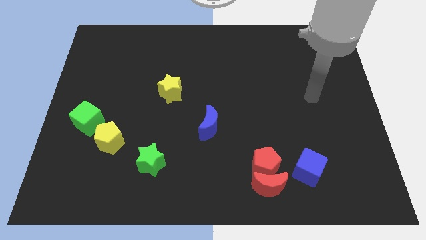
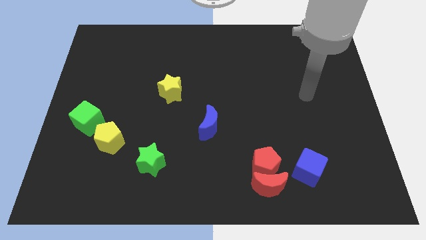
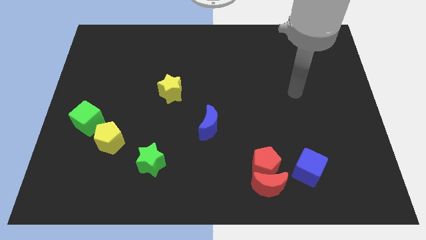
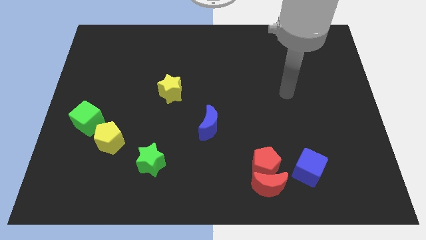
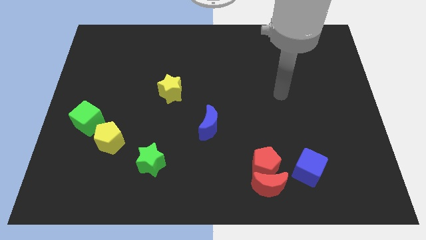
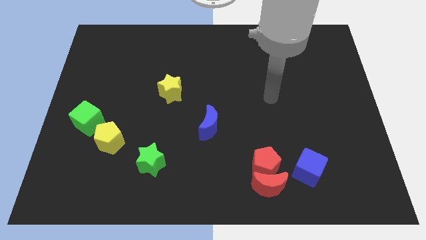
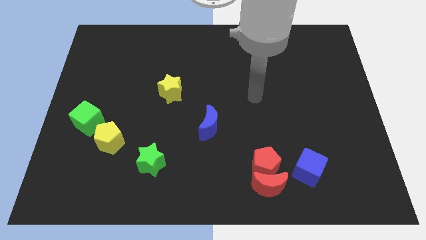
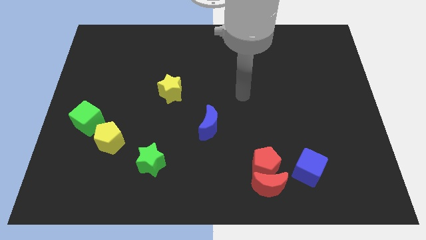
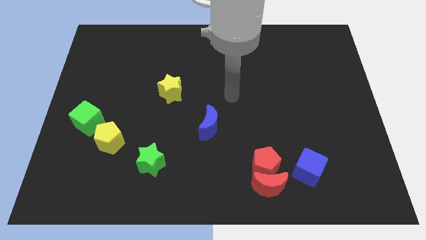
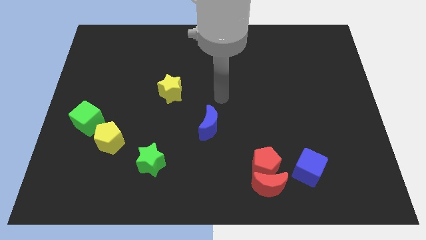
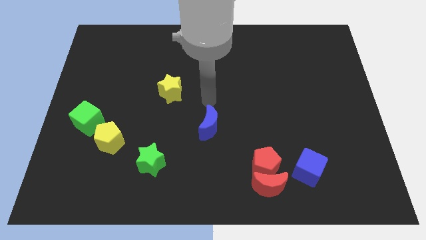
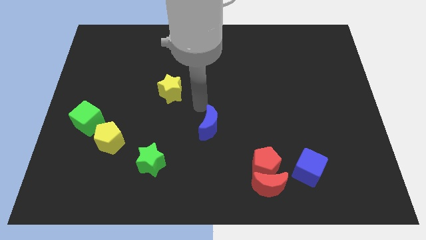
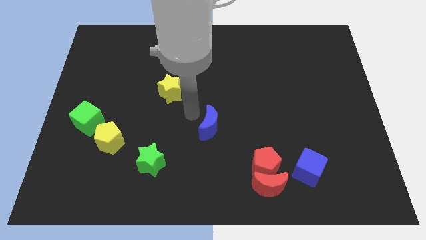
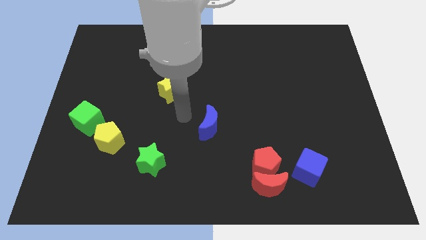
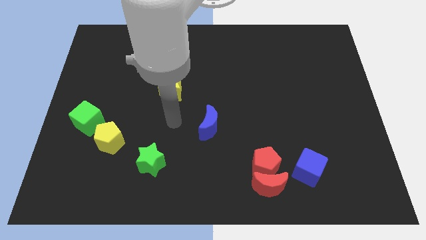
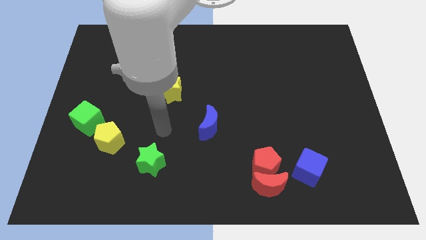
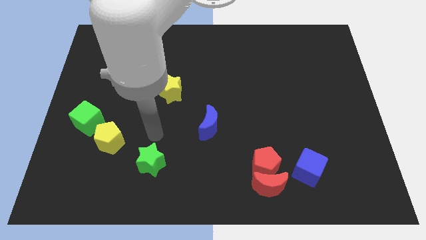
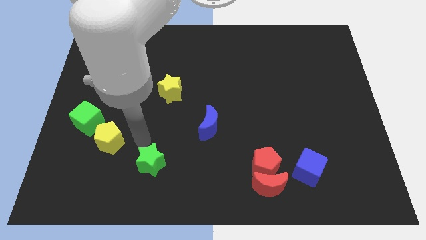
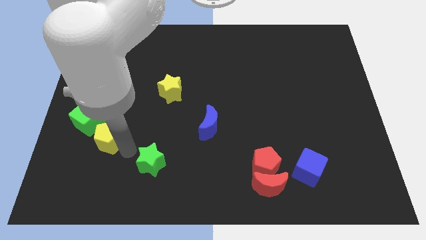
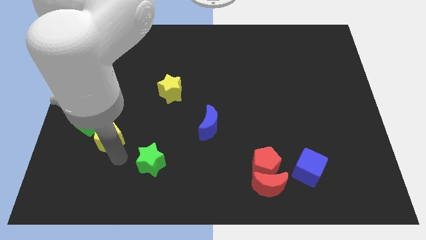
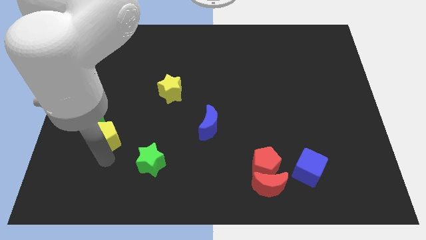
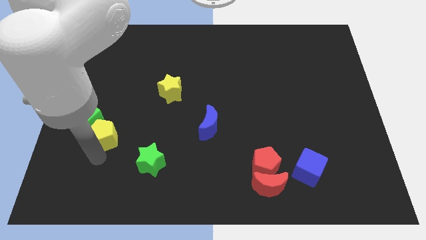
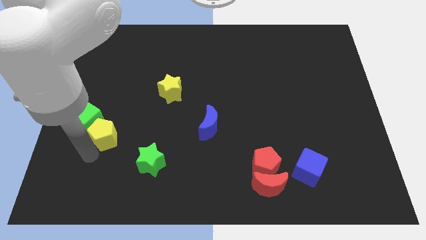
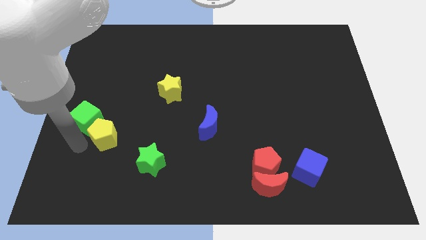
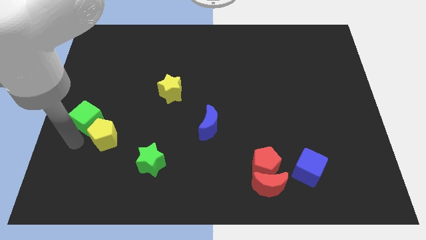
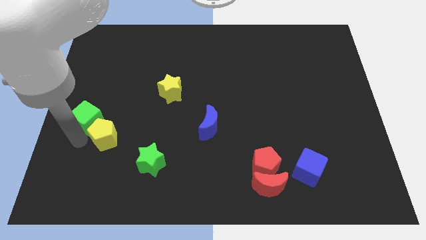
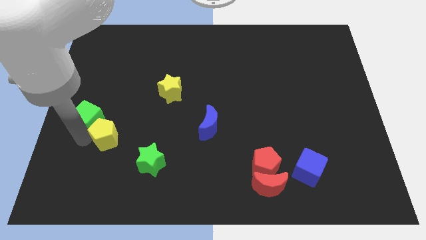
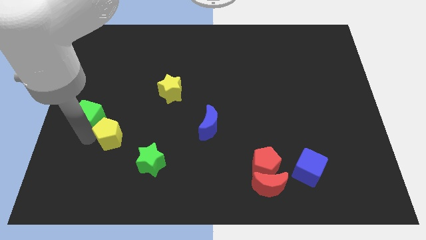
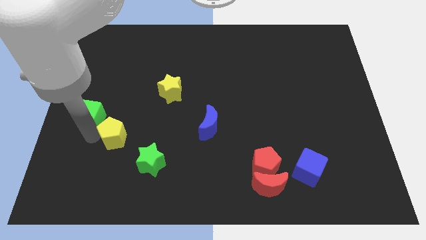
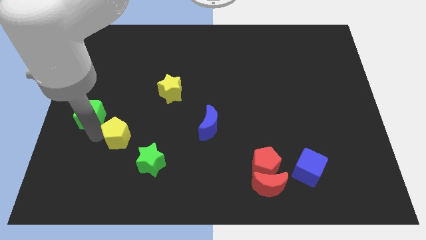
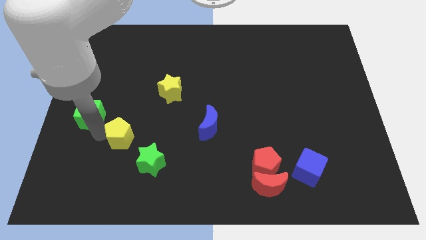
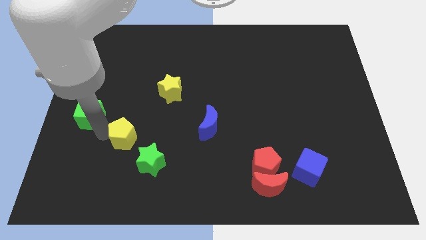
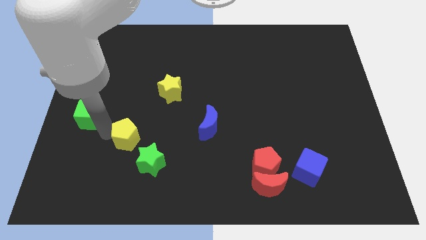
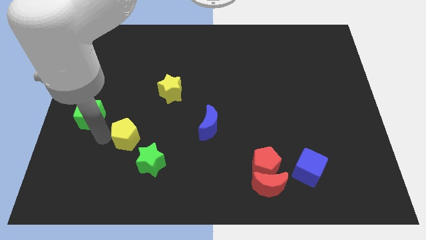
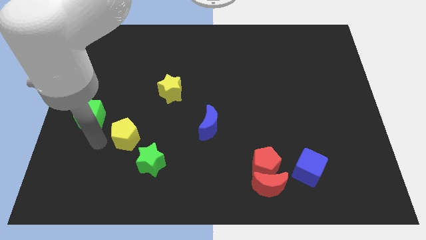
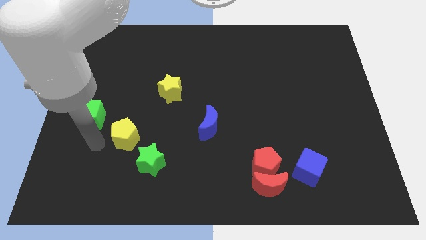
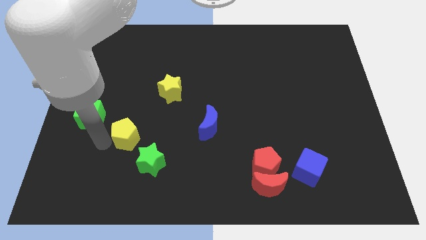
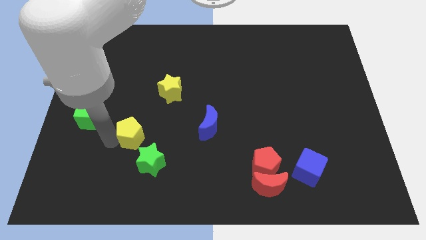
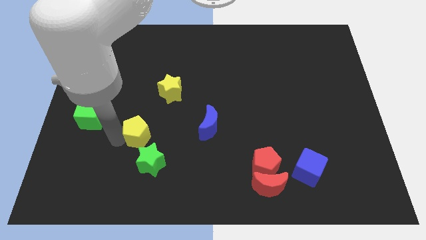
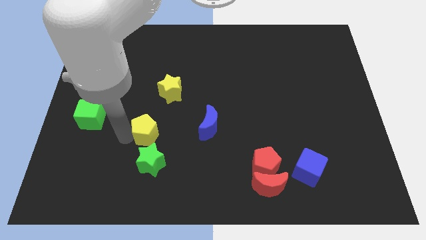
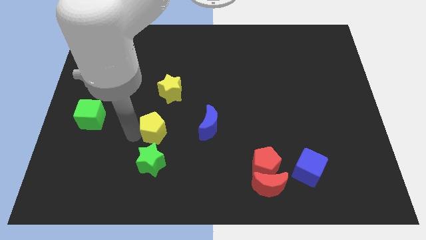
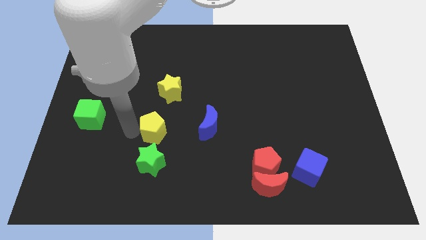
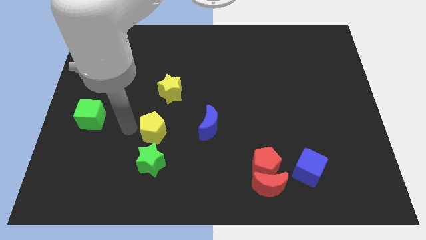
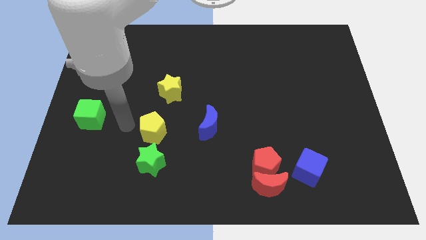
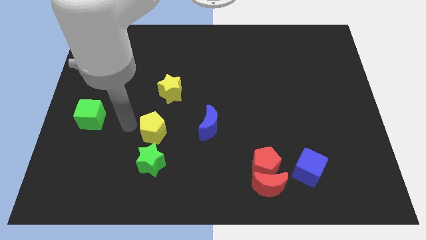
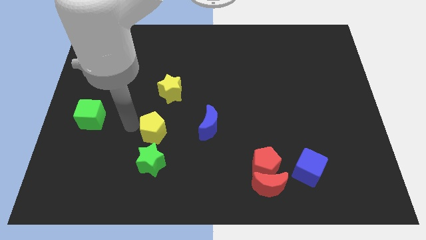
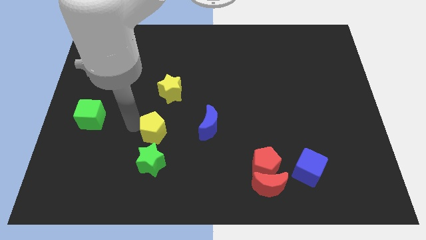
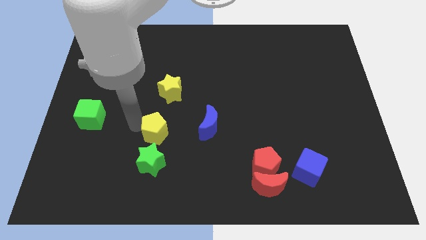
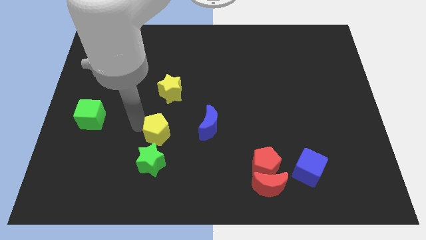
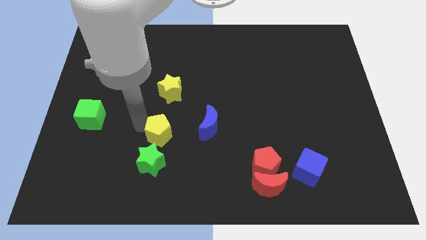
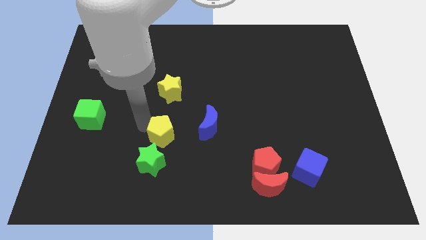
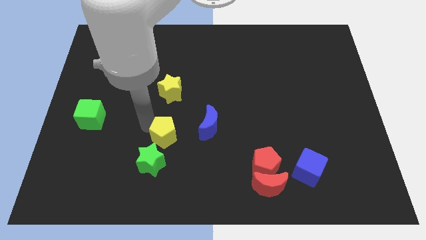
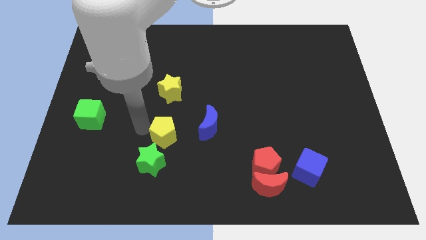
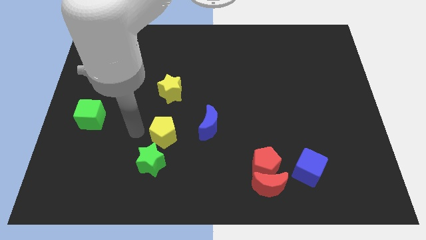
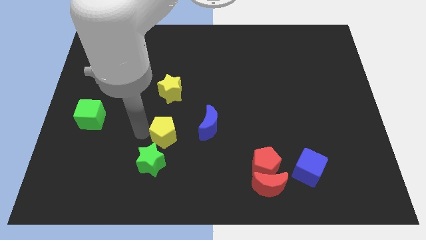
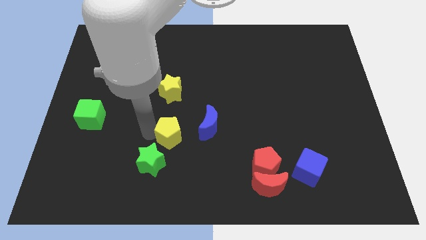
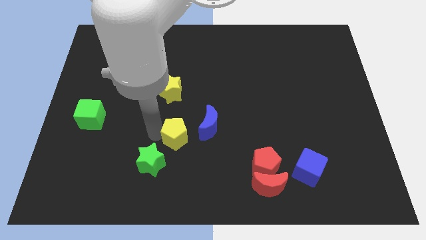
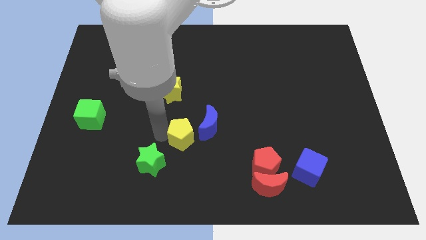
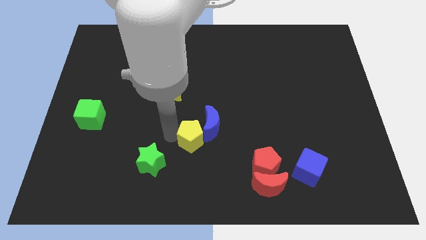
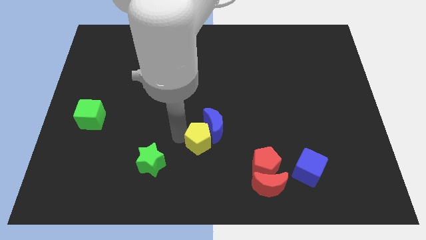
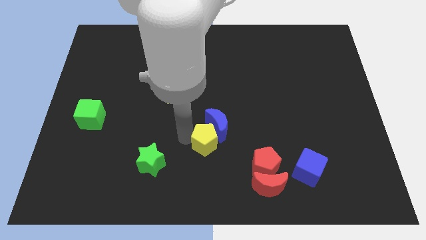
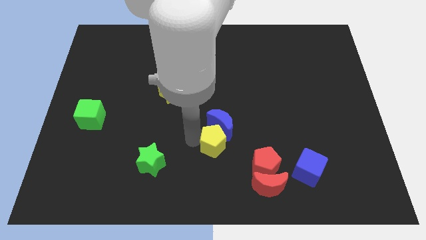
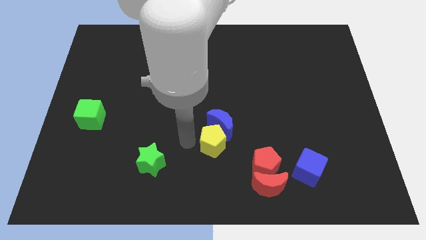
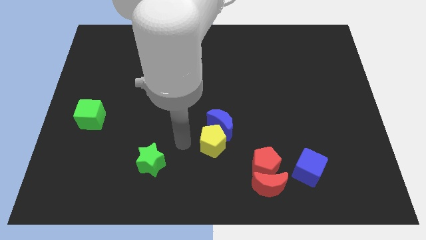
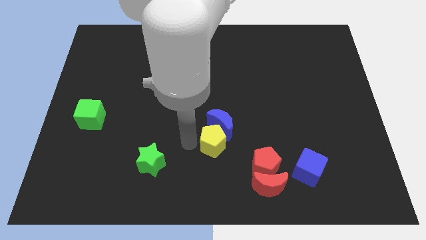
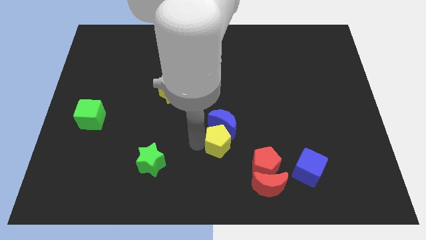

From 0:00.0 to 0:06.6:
move the yellow pentagon diagonally up and to the left of the red pentagon

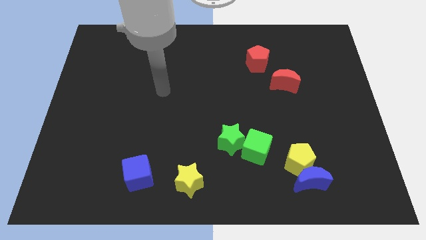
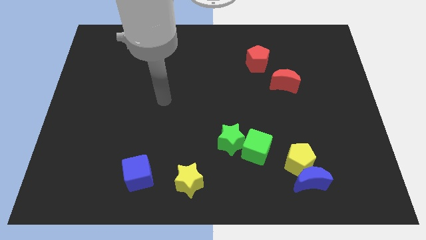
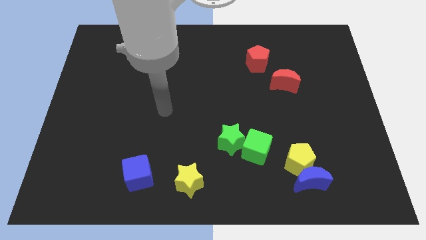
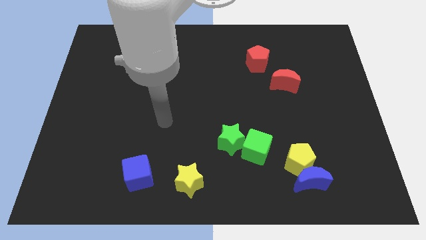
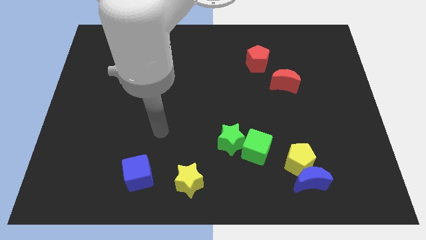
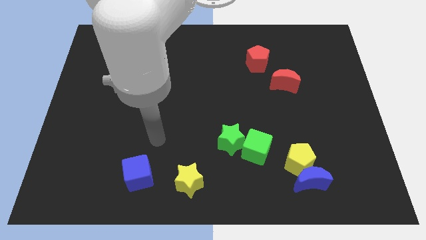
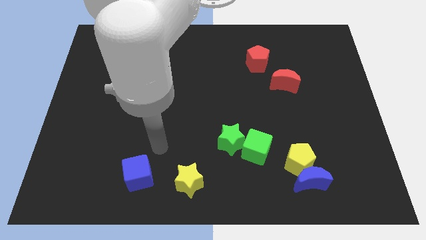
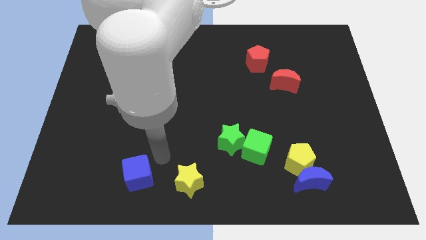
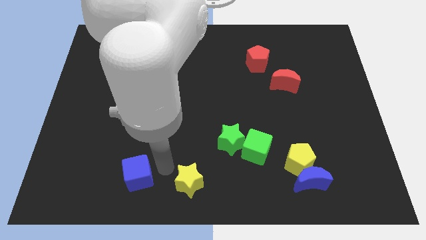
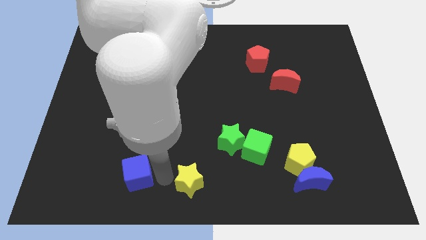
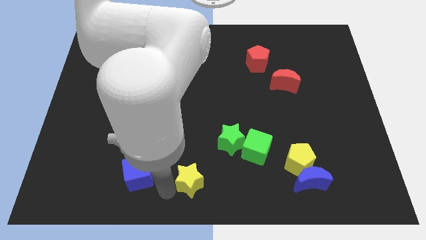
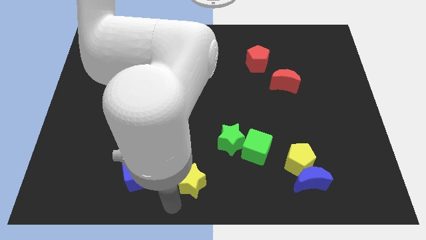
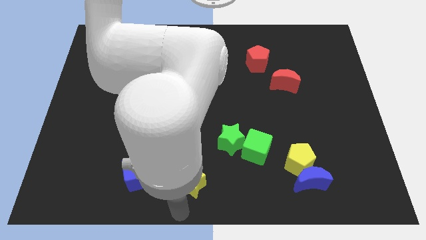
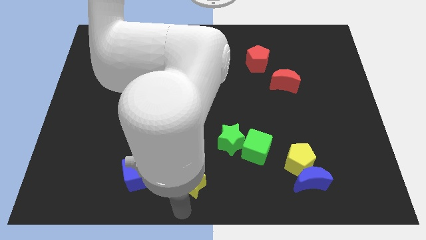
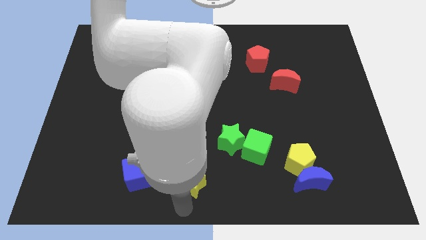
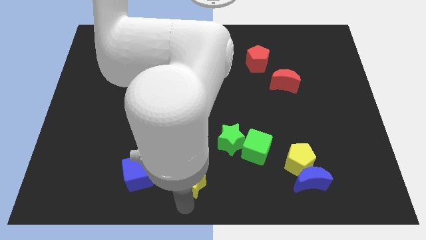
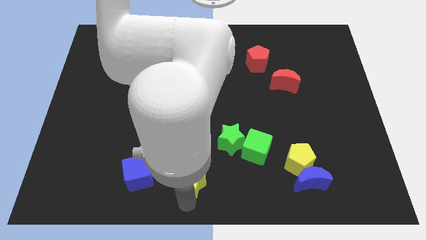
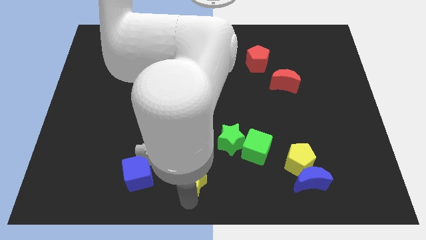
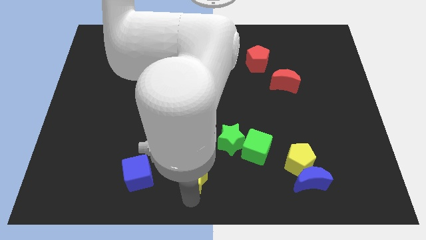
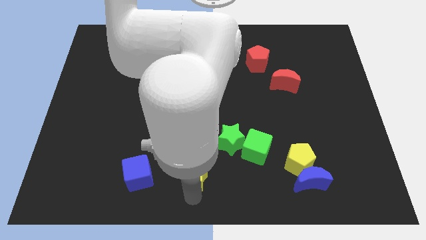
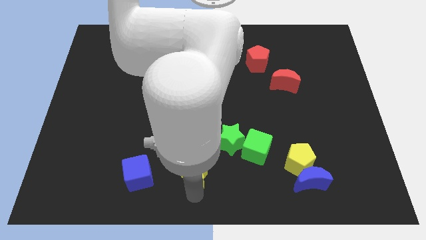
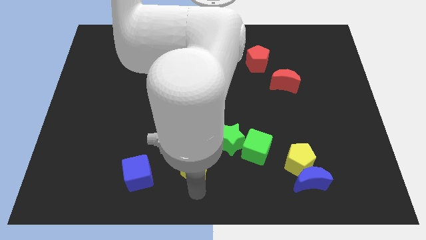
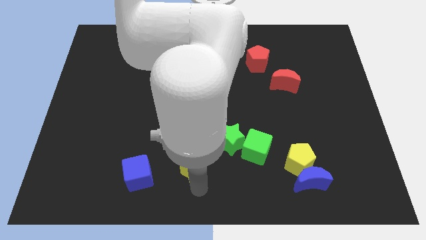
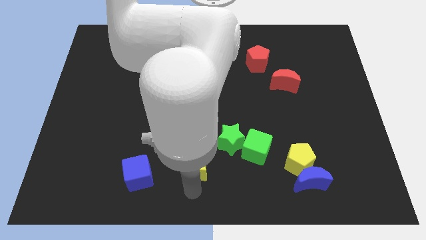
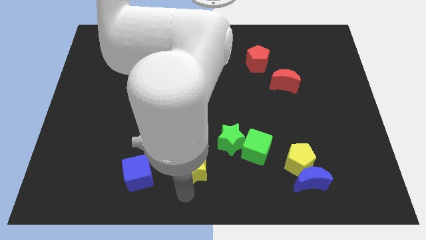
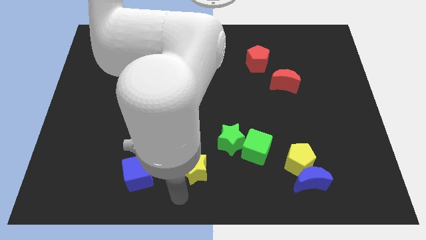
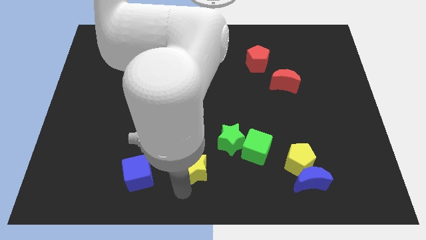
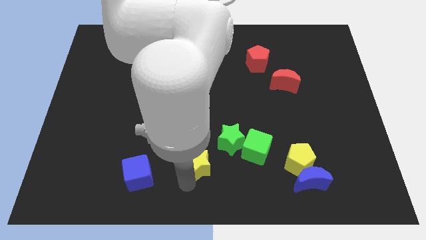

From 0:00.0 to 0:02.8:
put the yellow star to the left side of the green cube
